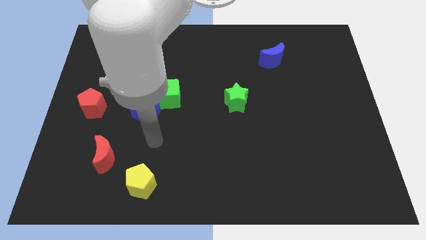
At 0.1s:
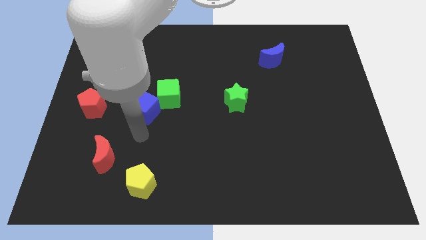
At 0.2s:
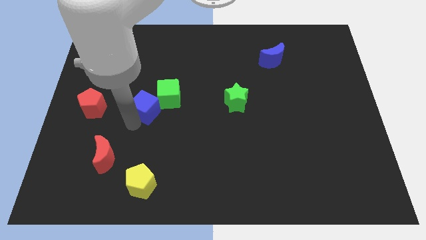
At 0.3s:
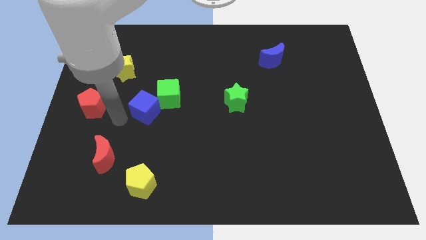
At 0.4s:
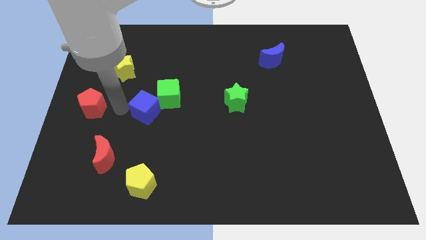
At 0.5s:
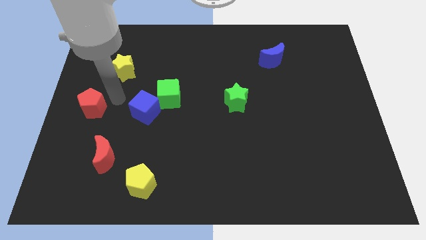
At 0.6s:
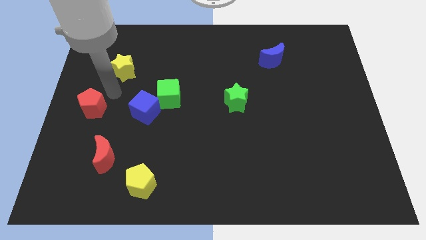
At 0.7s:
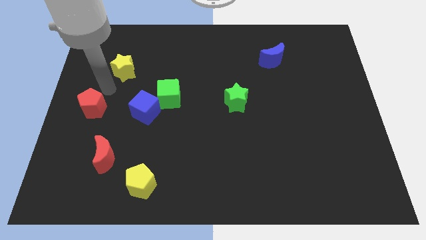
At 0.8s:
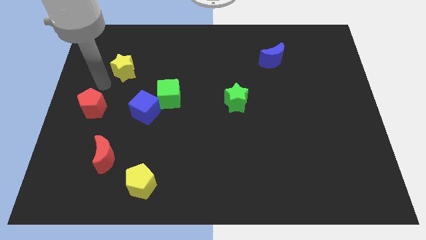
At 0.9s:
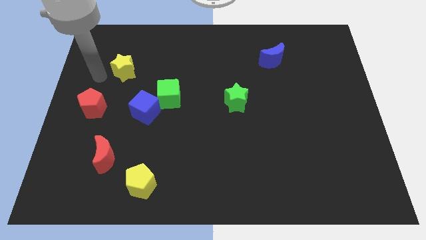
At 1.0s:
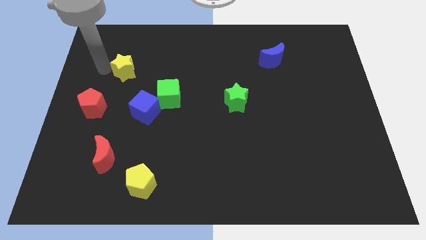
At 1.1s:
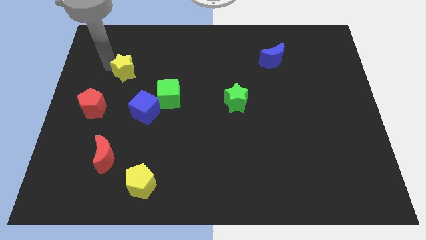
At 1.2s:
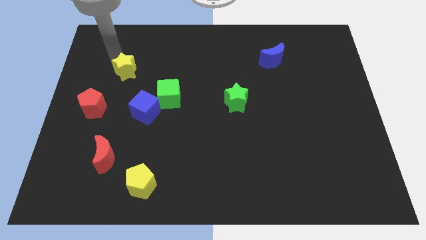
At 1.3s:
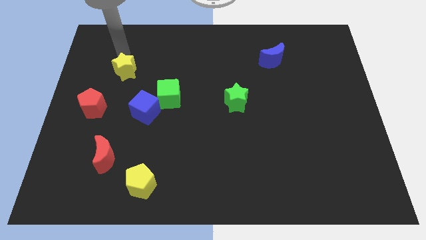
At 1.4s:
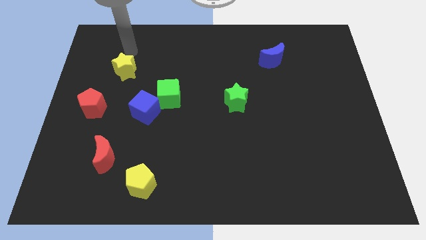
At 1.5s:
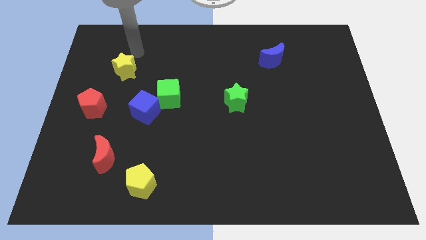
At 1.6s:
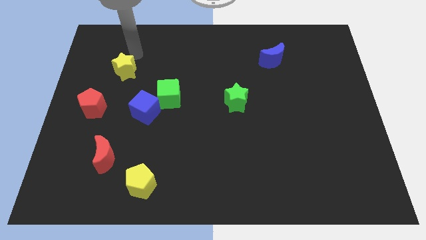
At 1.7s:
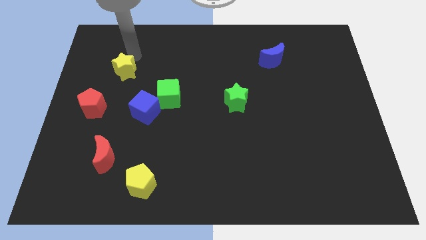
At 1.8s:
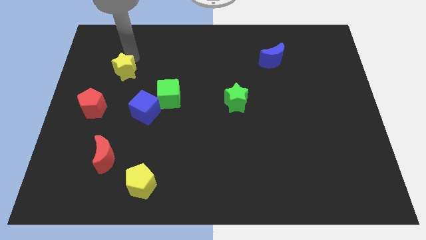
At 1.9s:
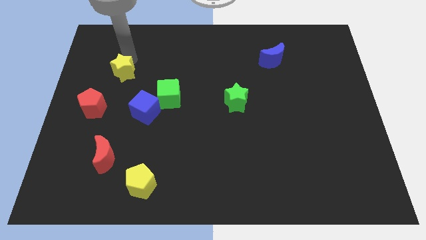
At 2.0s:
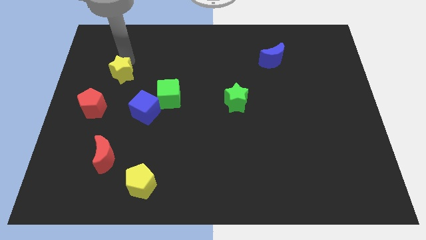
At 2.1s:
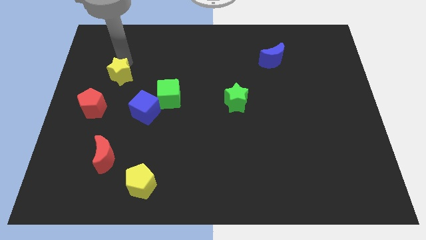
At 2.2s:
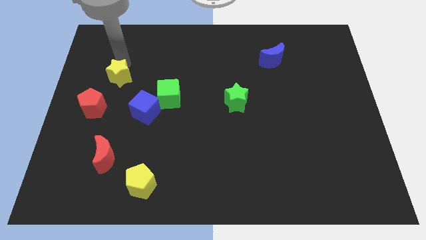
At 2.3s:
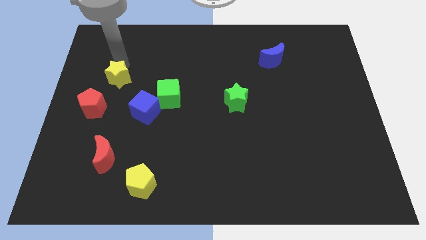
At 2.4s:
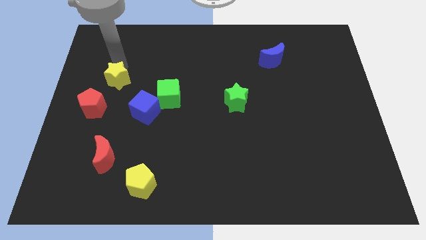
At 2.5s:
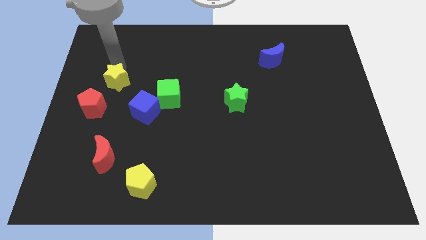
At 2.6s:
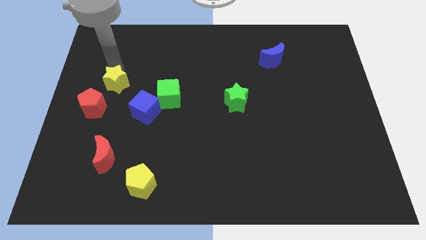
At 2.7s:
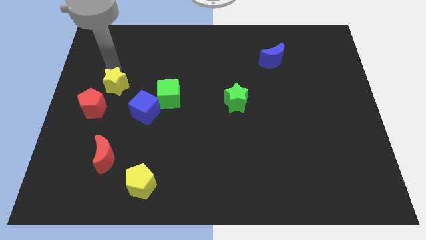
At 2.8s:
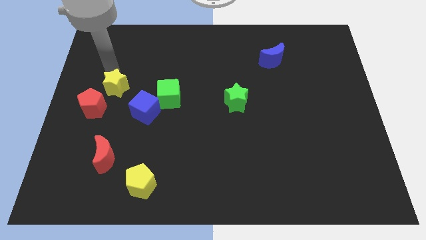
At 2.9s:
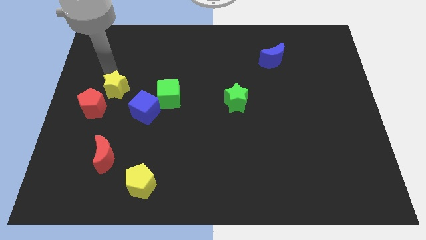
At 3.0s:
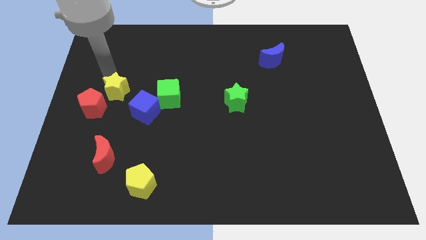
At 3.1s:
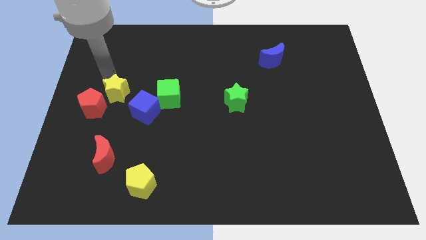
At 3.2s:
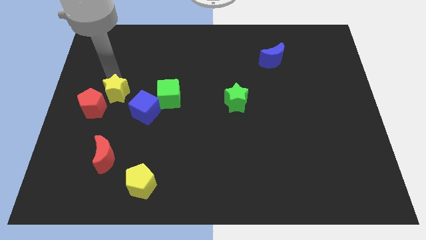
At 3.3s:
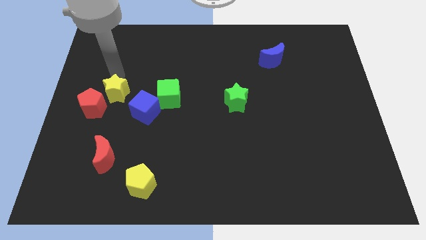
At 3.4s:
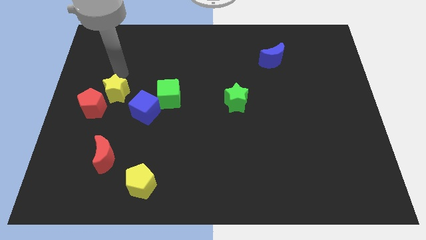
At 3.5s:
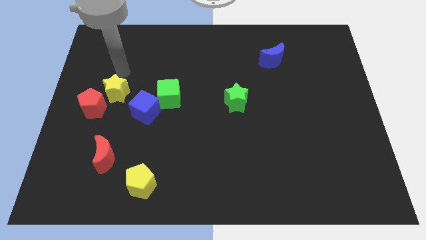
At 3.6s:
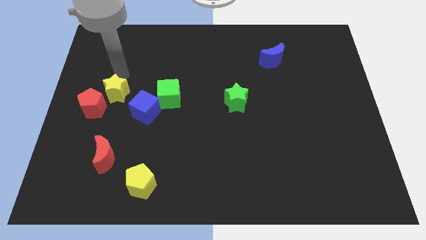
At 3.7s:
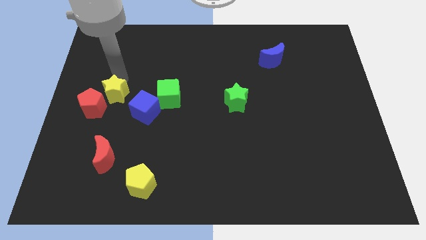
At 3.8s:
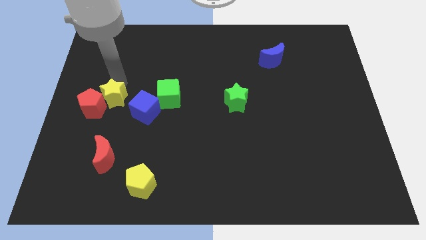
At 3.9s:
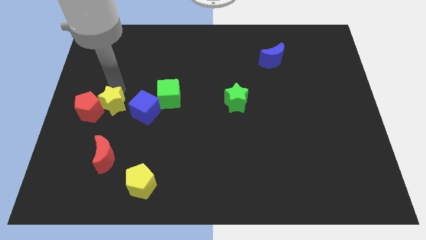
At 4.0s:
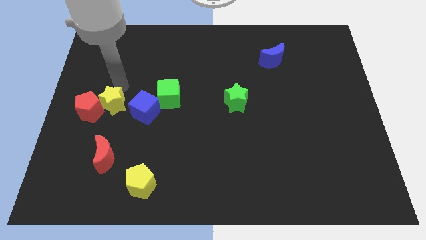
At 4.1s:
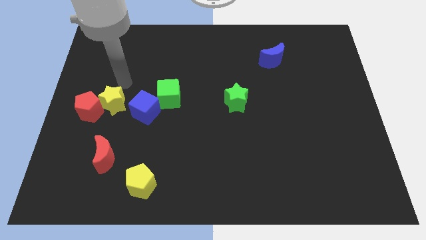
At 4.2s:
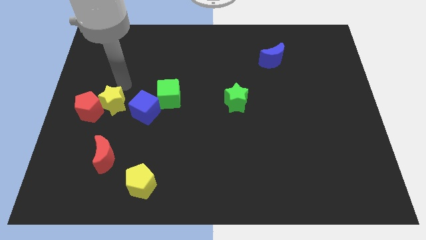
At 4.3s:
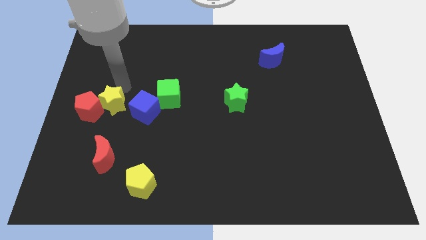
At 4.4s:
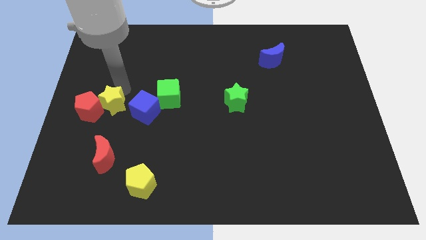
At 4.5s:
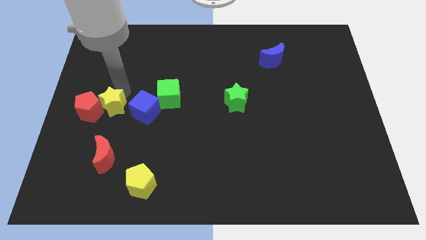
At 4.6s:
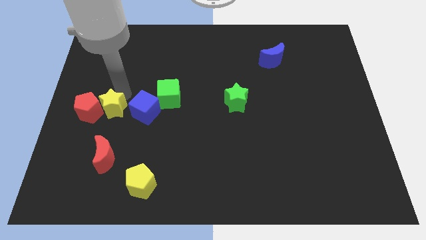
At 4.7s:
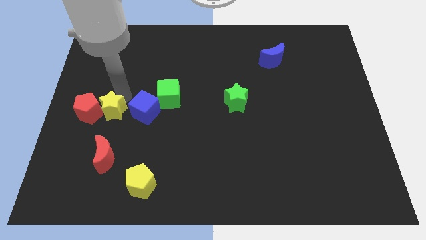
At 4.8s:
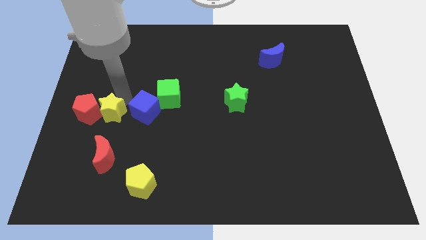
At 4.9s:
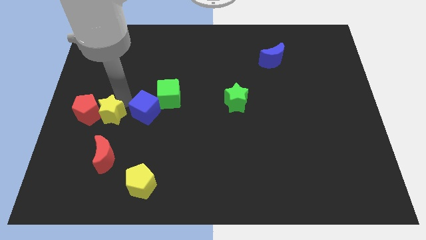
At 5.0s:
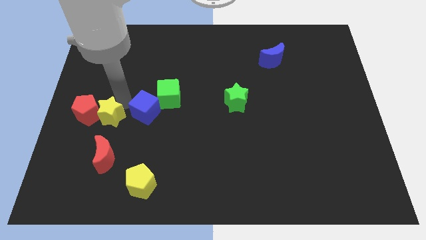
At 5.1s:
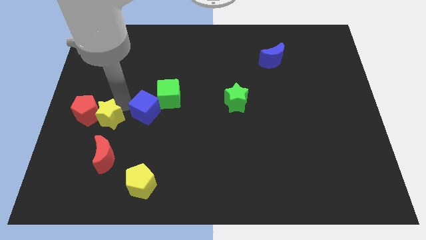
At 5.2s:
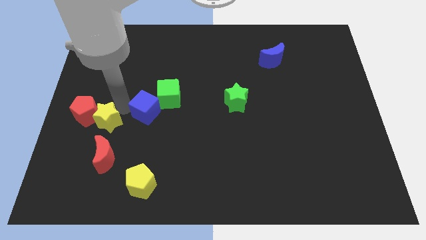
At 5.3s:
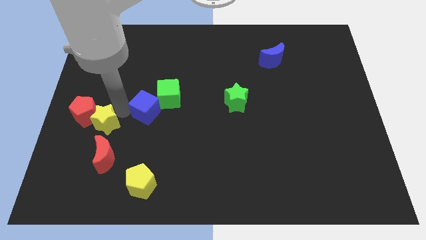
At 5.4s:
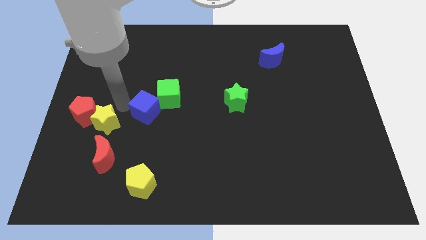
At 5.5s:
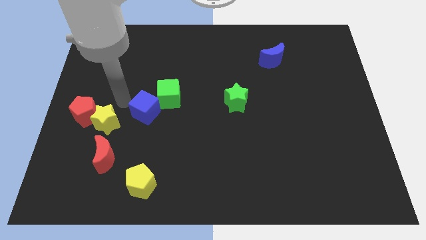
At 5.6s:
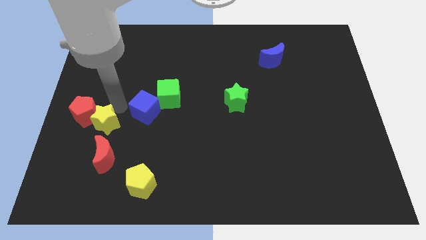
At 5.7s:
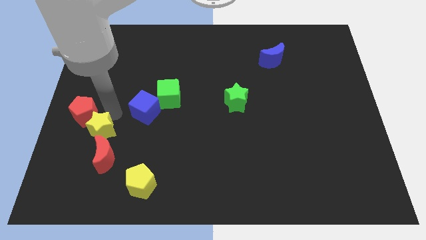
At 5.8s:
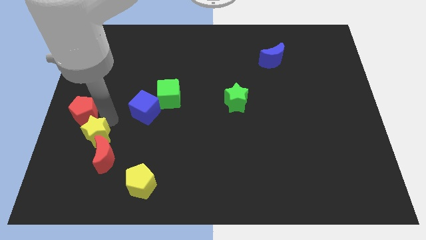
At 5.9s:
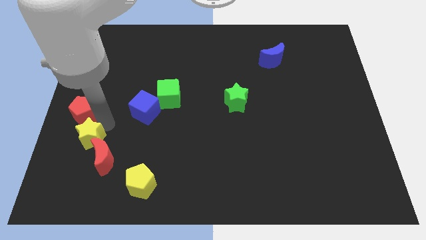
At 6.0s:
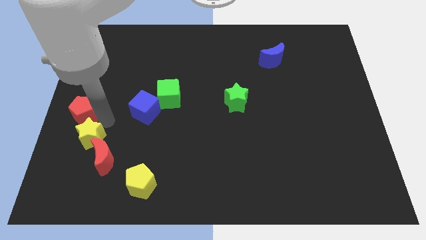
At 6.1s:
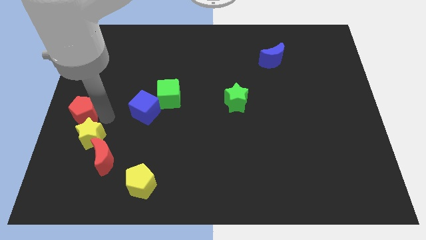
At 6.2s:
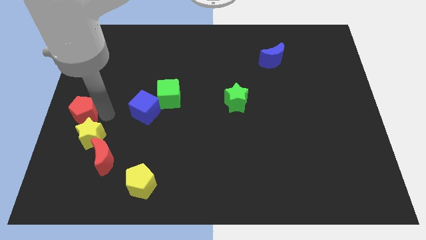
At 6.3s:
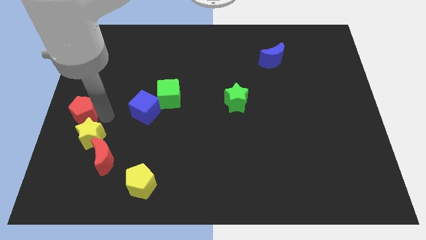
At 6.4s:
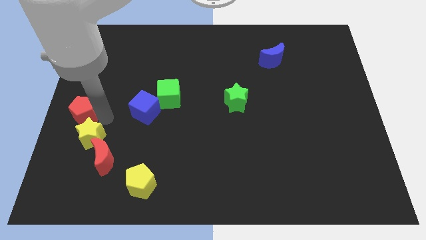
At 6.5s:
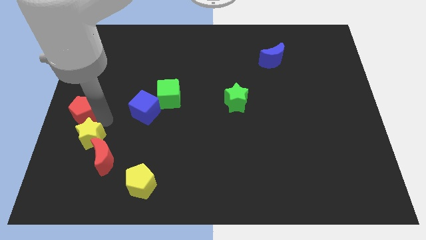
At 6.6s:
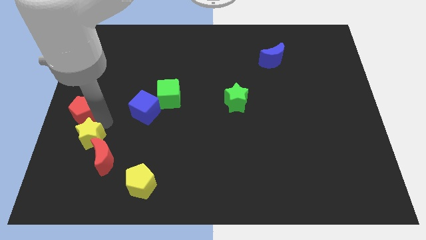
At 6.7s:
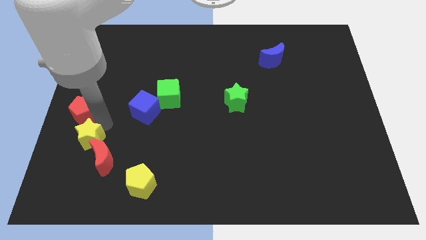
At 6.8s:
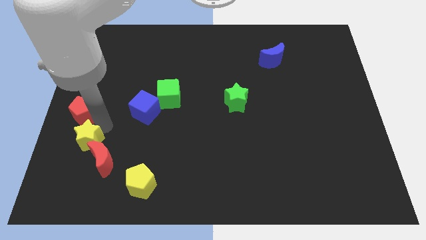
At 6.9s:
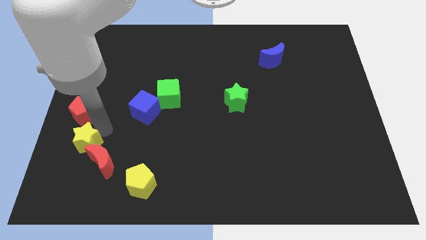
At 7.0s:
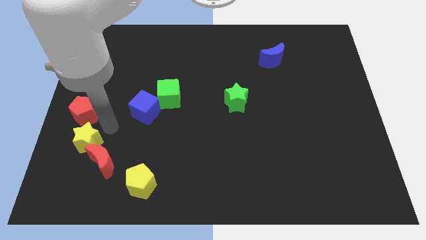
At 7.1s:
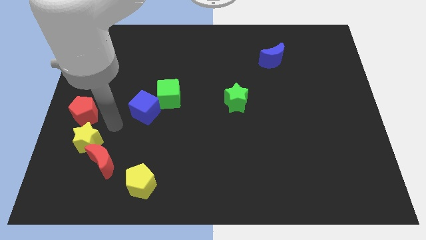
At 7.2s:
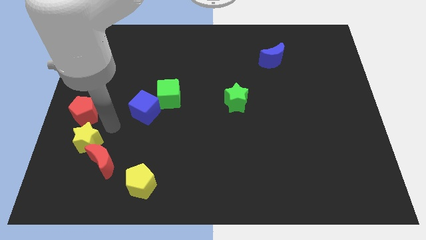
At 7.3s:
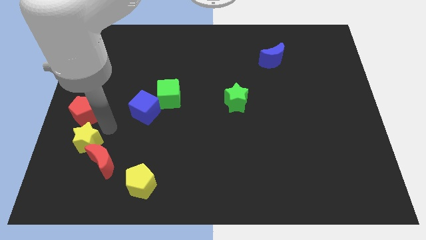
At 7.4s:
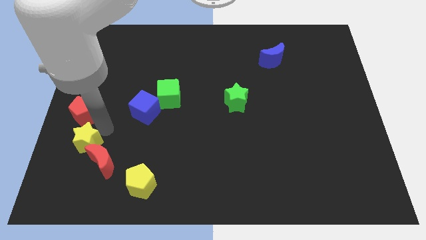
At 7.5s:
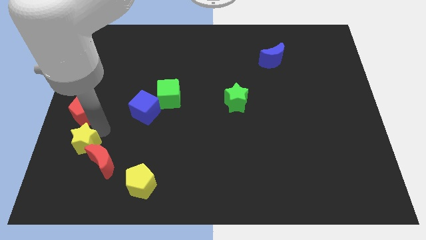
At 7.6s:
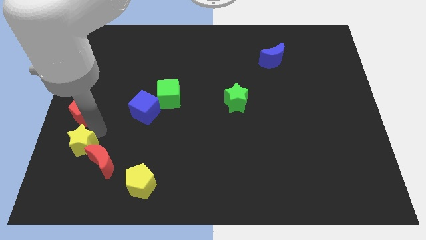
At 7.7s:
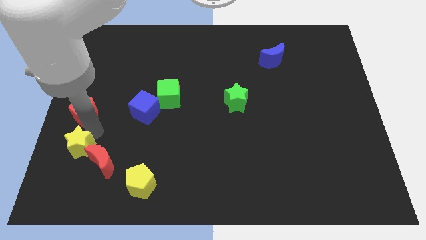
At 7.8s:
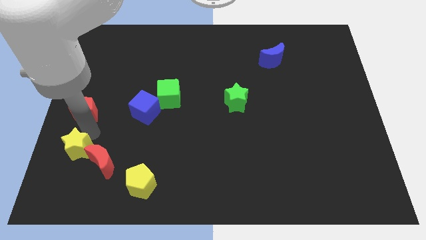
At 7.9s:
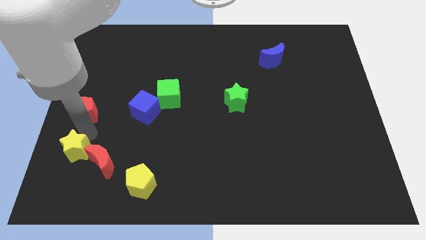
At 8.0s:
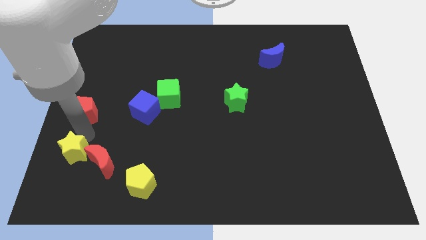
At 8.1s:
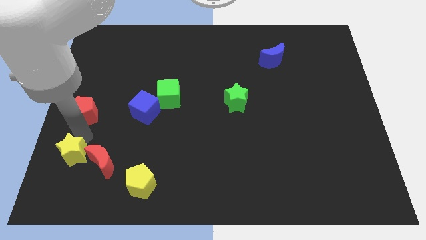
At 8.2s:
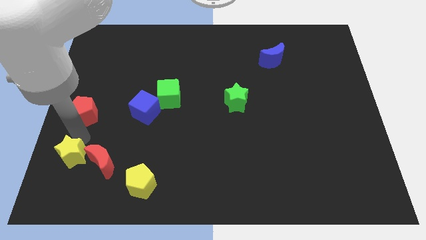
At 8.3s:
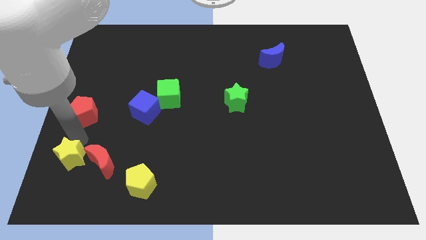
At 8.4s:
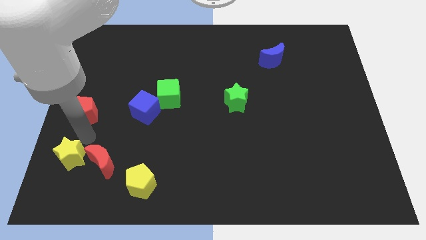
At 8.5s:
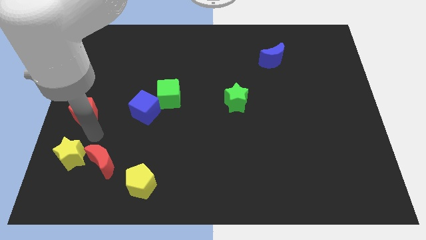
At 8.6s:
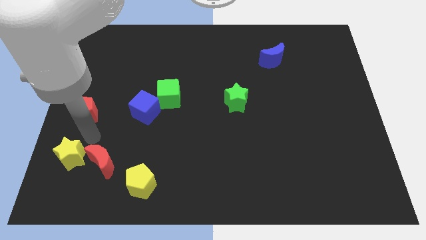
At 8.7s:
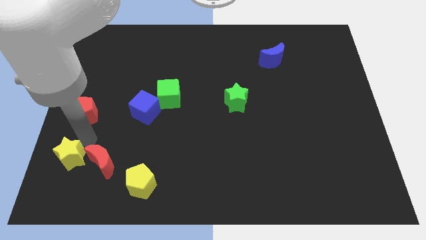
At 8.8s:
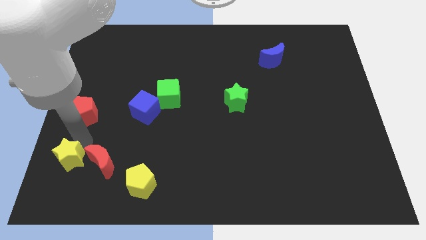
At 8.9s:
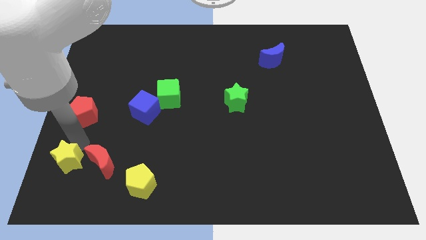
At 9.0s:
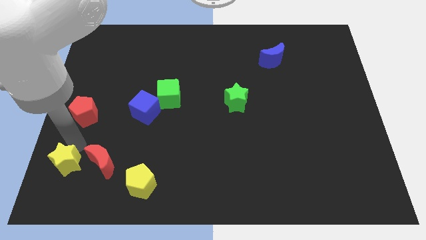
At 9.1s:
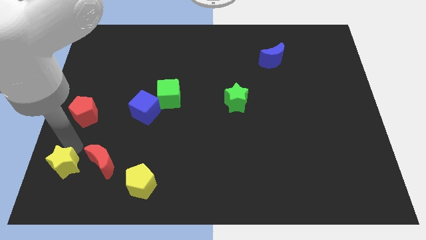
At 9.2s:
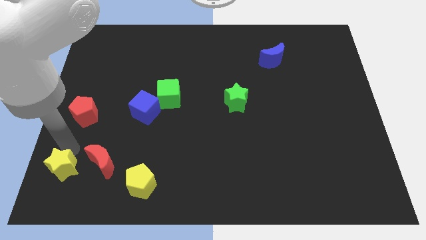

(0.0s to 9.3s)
slide the yellow star to the bottom left corner
